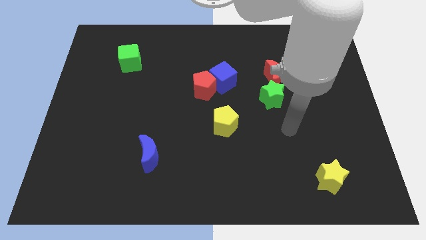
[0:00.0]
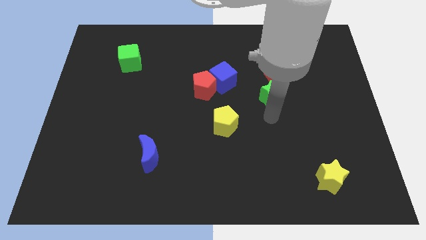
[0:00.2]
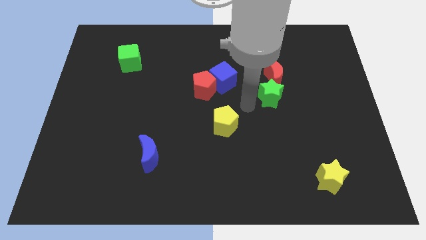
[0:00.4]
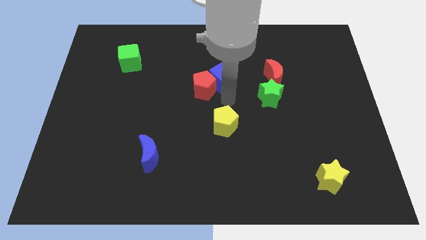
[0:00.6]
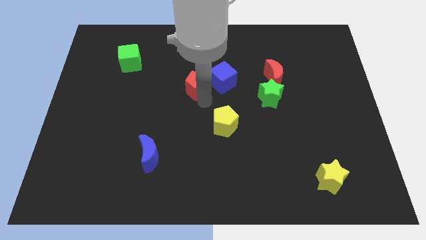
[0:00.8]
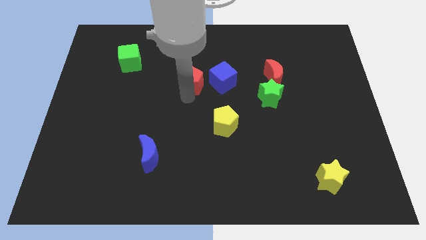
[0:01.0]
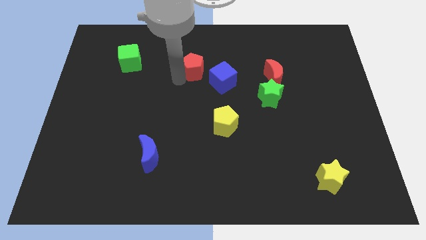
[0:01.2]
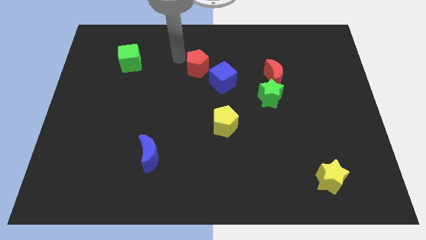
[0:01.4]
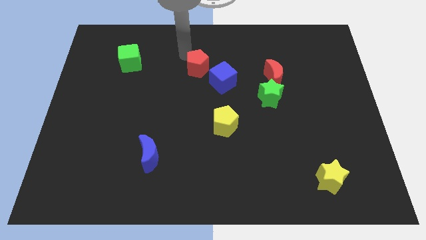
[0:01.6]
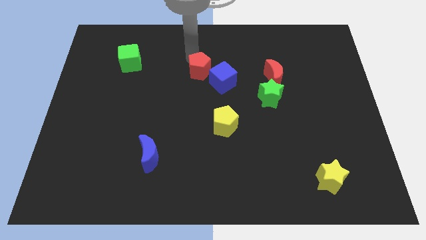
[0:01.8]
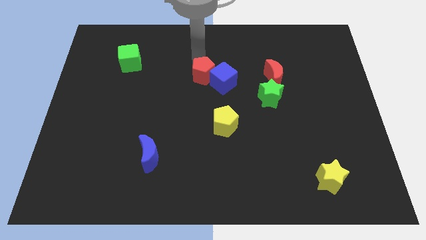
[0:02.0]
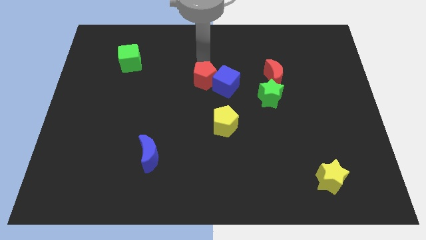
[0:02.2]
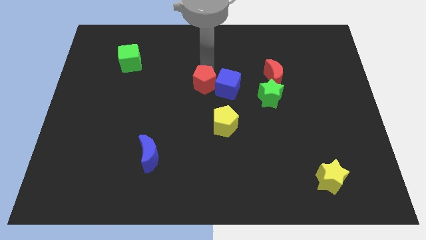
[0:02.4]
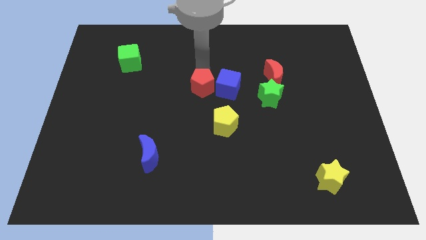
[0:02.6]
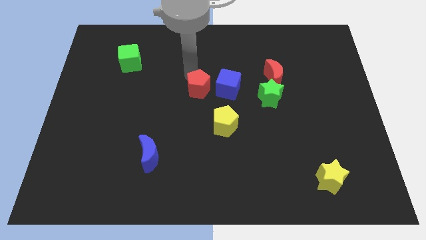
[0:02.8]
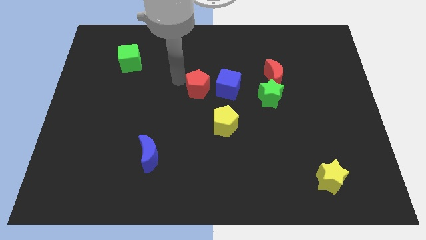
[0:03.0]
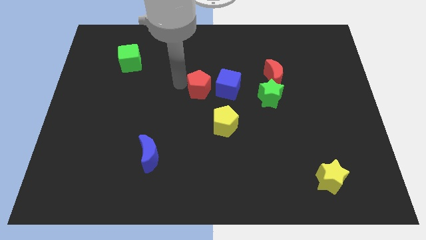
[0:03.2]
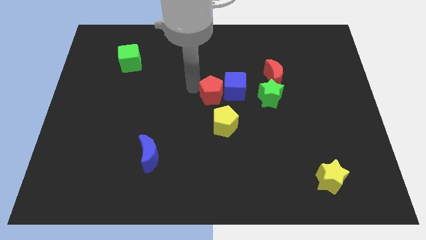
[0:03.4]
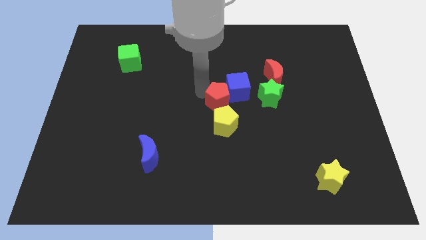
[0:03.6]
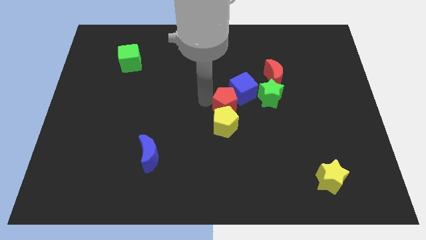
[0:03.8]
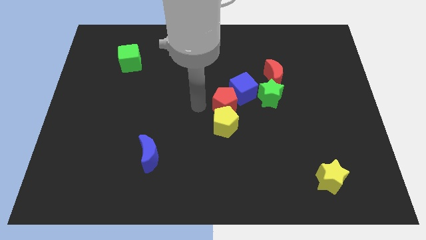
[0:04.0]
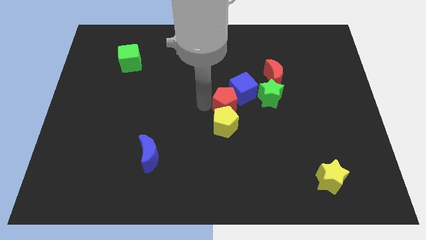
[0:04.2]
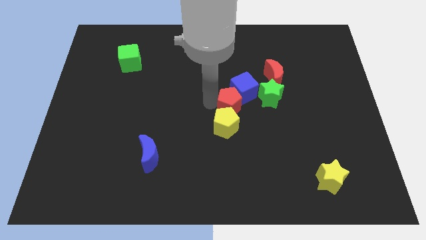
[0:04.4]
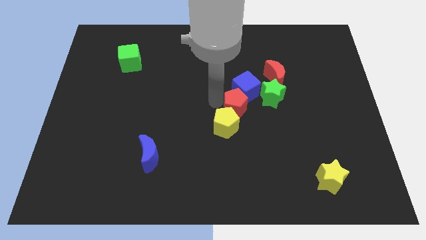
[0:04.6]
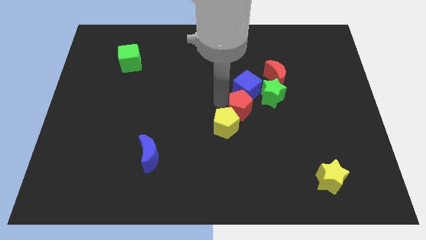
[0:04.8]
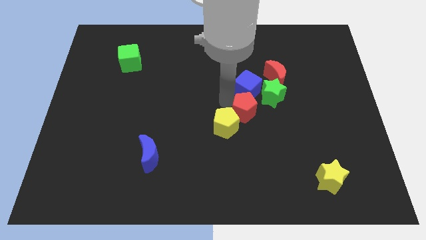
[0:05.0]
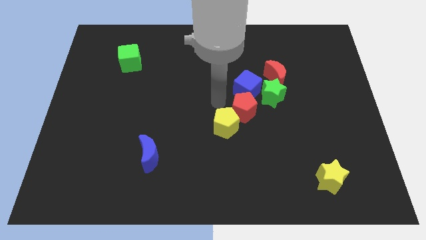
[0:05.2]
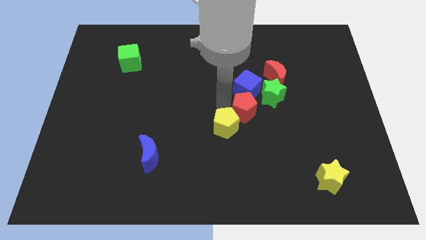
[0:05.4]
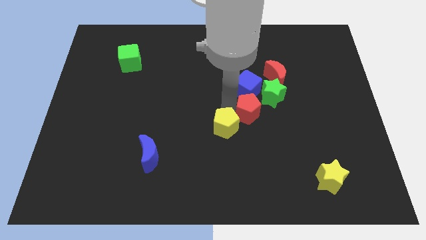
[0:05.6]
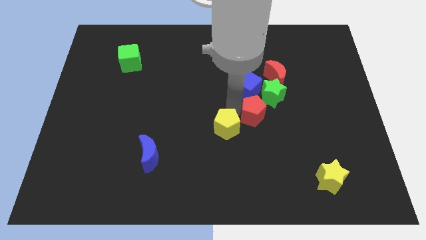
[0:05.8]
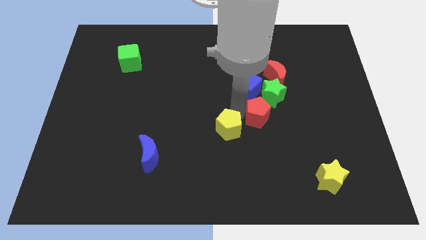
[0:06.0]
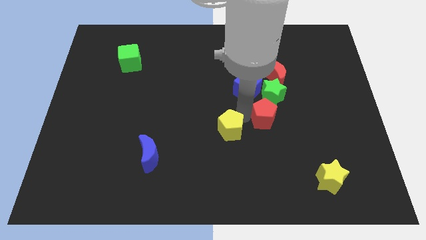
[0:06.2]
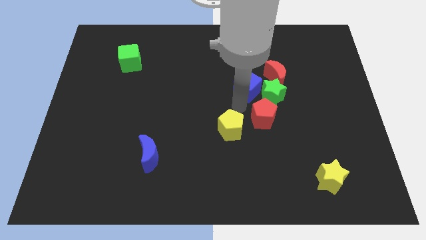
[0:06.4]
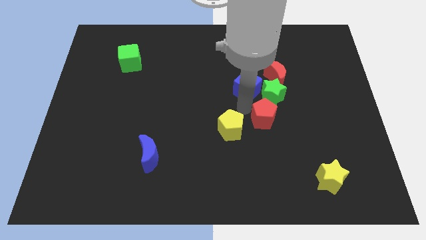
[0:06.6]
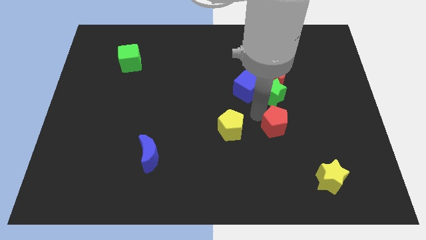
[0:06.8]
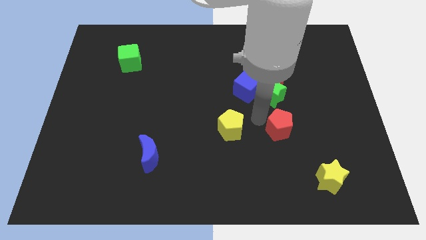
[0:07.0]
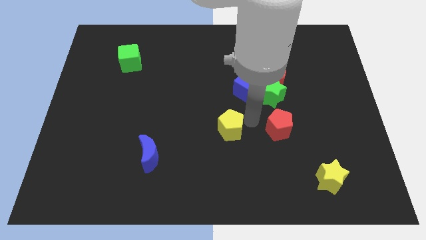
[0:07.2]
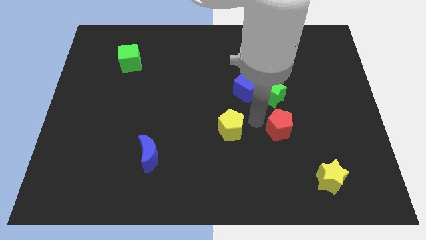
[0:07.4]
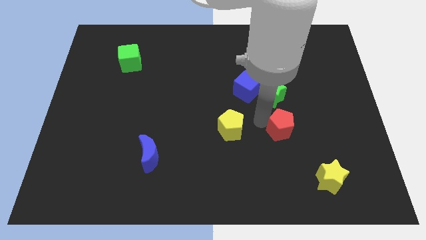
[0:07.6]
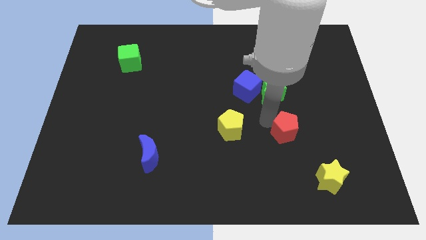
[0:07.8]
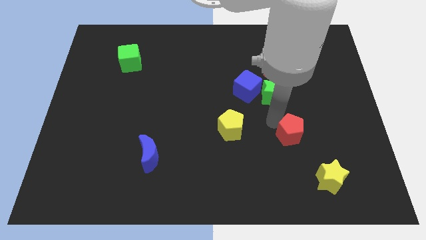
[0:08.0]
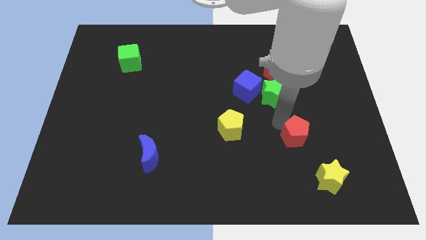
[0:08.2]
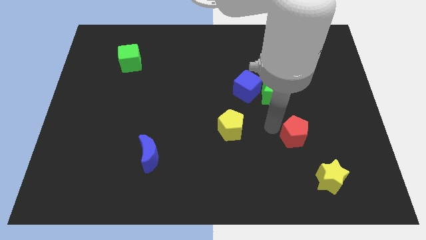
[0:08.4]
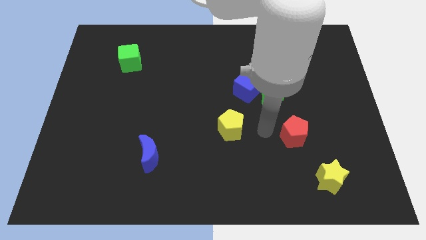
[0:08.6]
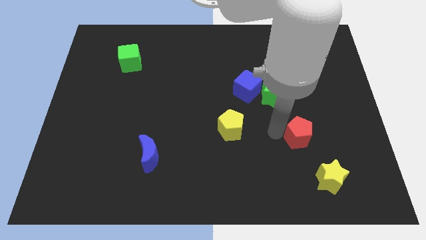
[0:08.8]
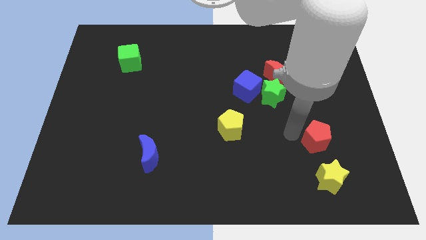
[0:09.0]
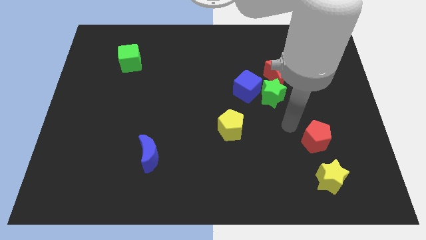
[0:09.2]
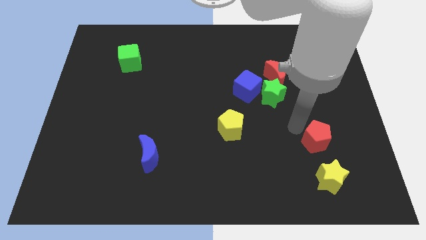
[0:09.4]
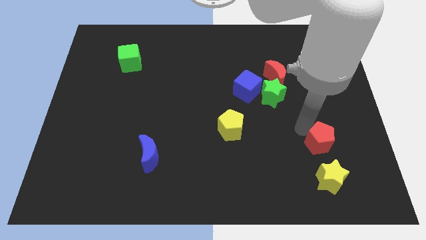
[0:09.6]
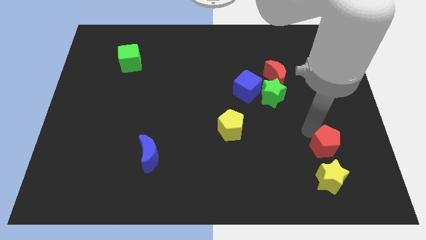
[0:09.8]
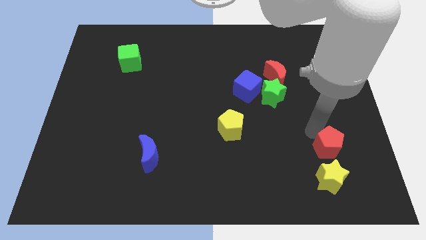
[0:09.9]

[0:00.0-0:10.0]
move the red pentagon diagonally up and to the right of the yellow star

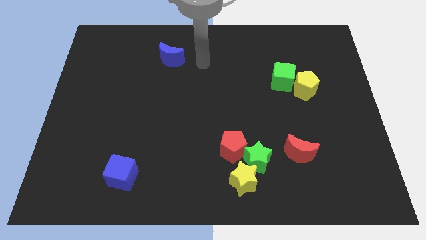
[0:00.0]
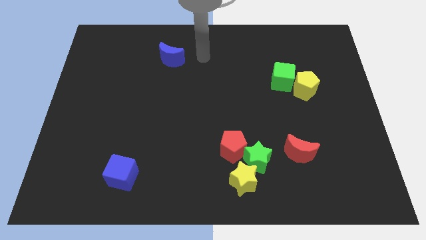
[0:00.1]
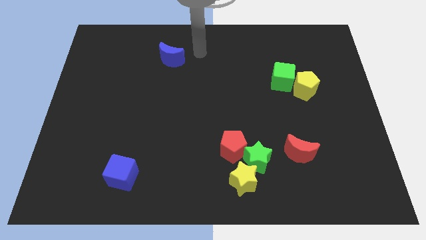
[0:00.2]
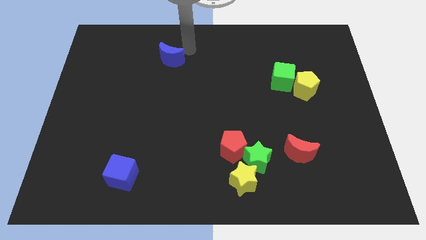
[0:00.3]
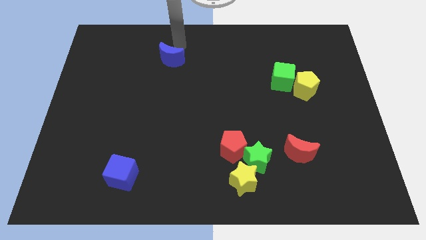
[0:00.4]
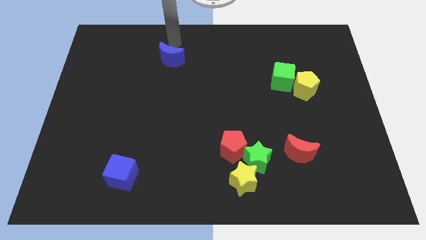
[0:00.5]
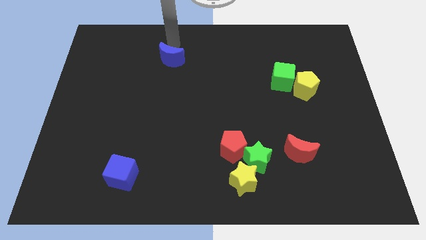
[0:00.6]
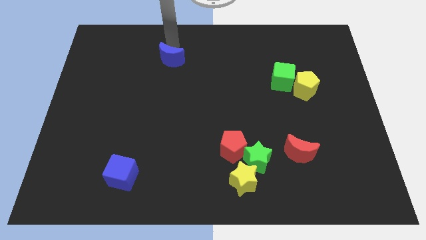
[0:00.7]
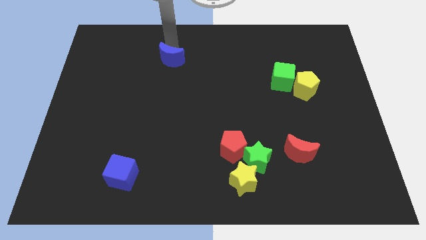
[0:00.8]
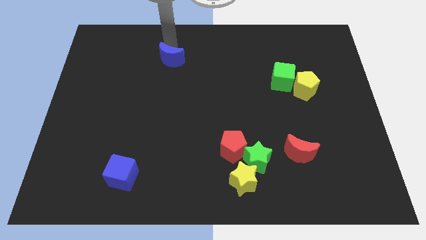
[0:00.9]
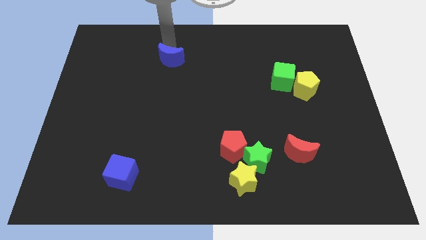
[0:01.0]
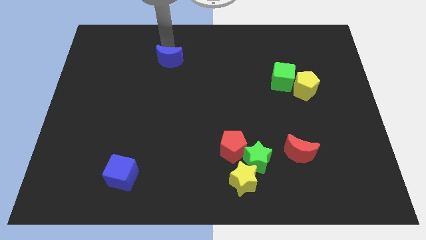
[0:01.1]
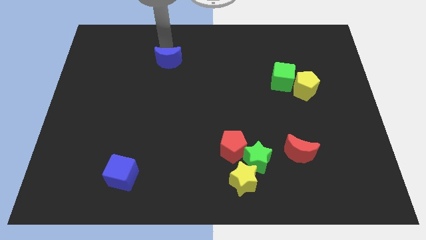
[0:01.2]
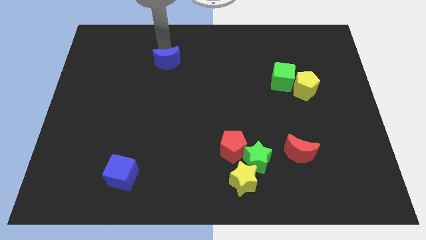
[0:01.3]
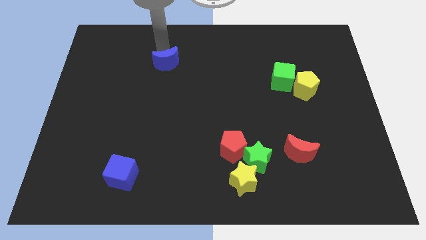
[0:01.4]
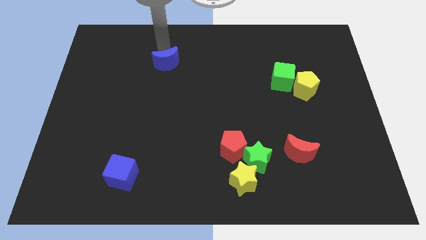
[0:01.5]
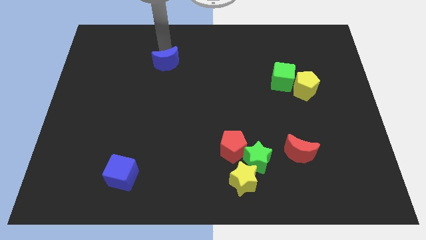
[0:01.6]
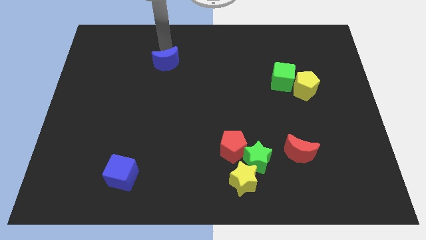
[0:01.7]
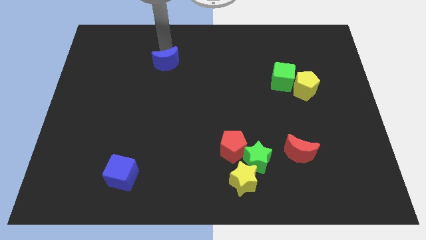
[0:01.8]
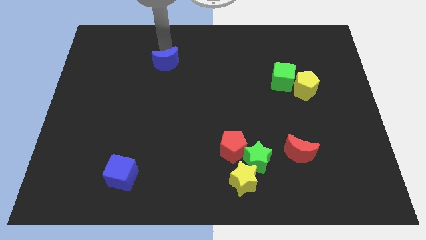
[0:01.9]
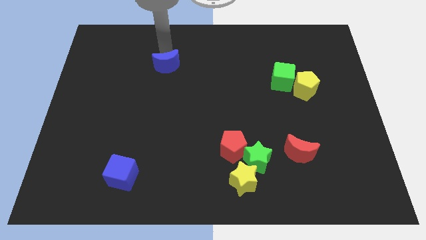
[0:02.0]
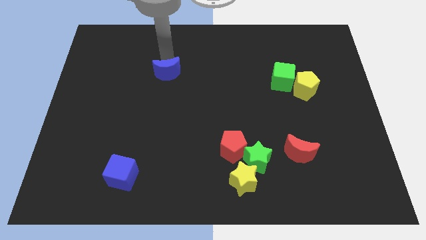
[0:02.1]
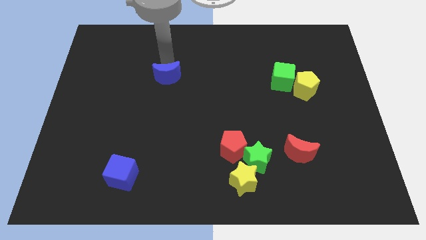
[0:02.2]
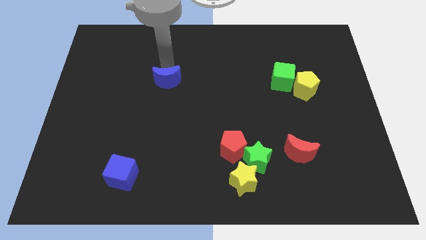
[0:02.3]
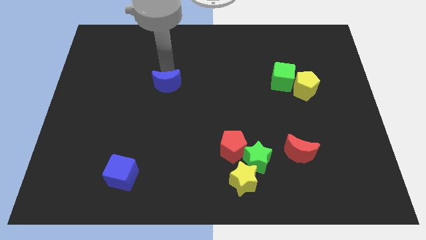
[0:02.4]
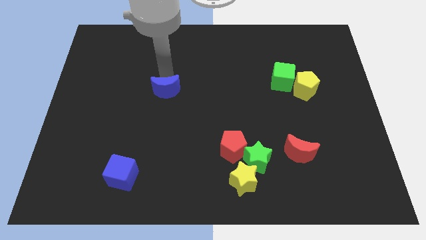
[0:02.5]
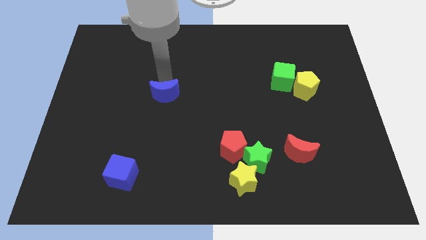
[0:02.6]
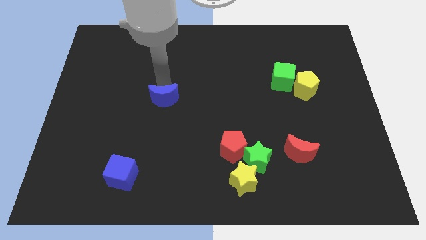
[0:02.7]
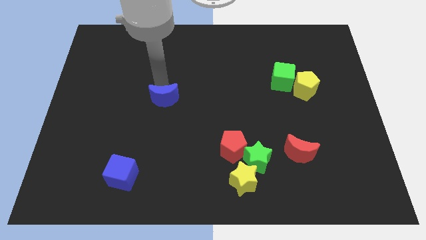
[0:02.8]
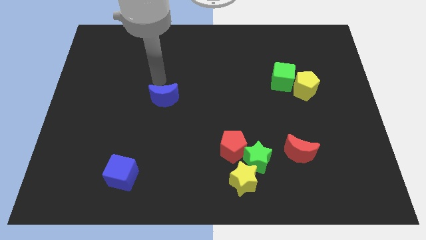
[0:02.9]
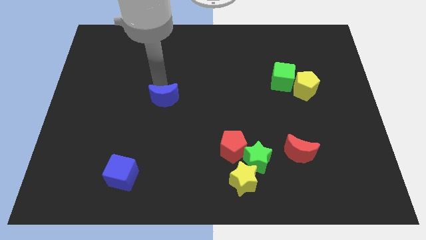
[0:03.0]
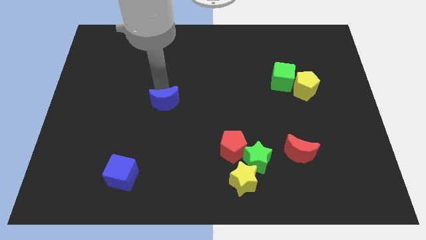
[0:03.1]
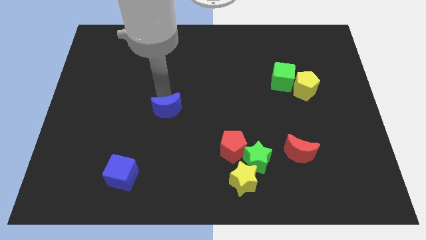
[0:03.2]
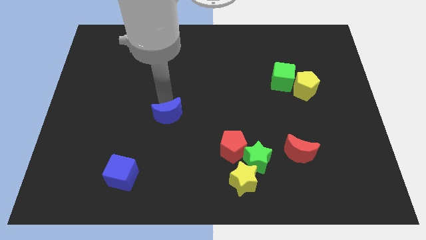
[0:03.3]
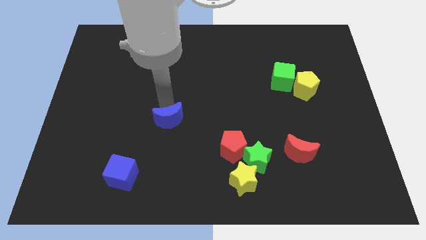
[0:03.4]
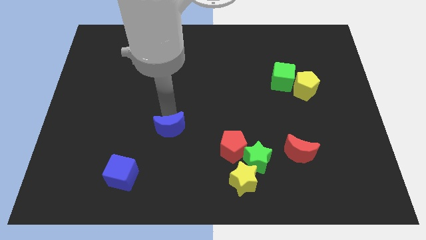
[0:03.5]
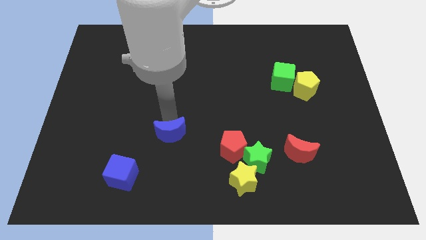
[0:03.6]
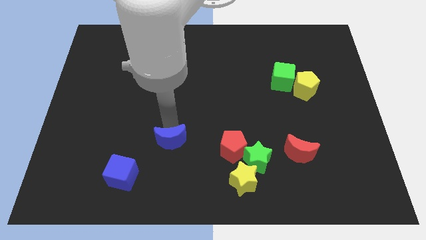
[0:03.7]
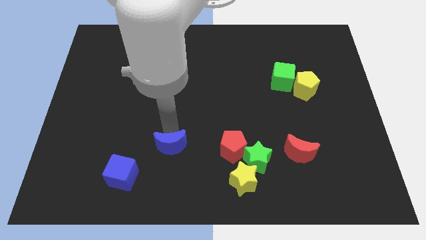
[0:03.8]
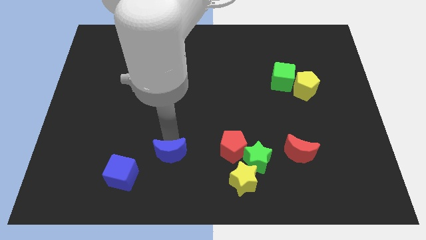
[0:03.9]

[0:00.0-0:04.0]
put the blue moon to the right side of the blue cube
